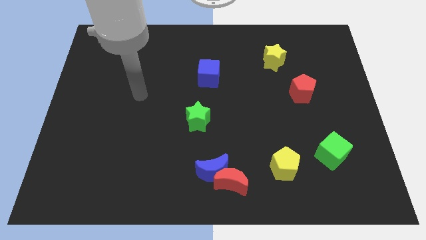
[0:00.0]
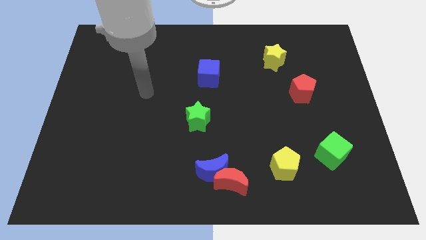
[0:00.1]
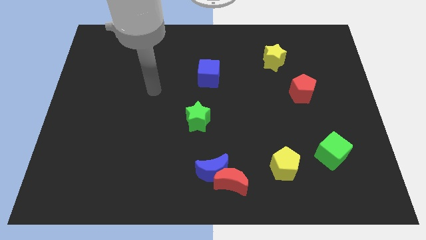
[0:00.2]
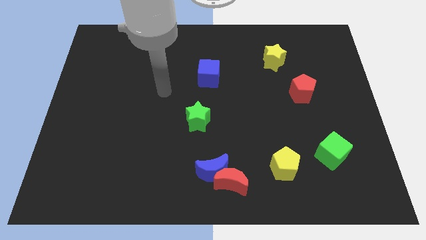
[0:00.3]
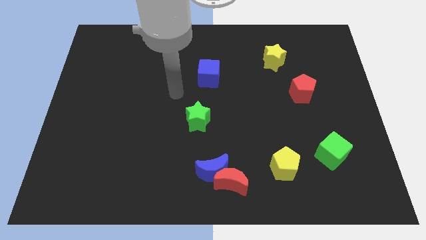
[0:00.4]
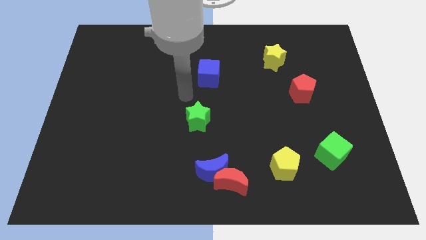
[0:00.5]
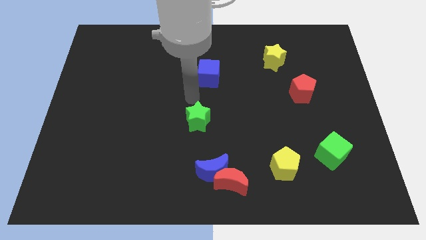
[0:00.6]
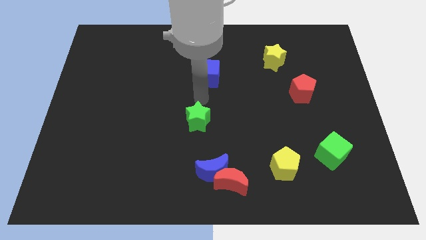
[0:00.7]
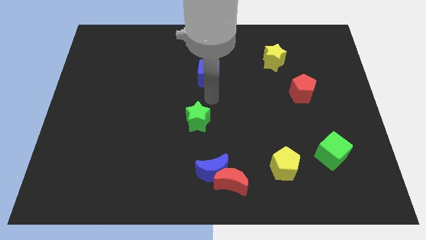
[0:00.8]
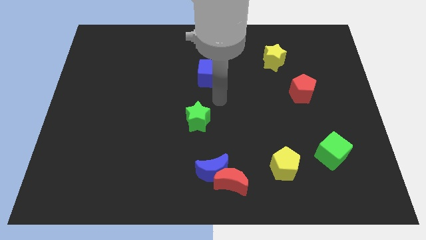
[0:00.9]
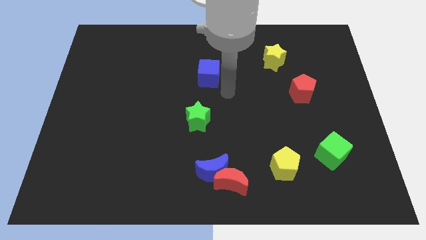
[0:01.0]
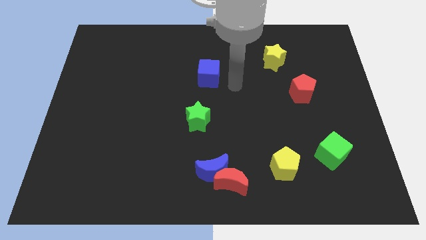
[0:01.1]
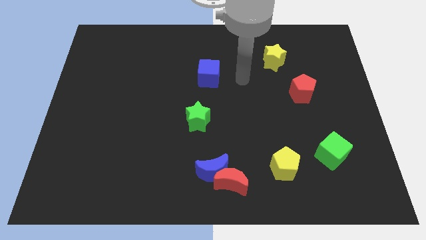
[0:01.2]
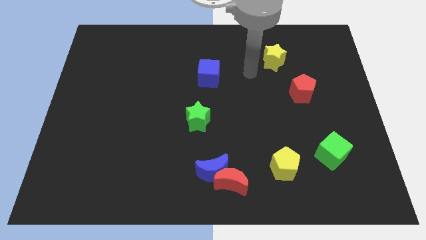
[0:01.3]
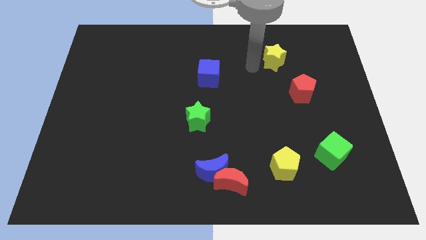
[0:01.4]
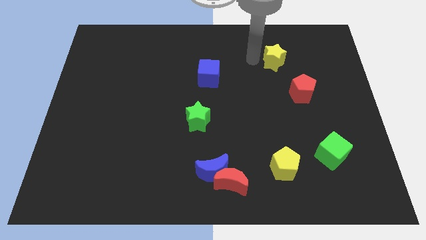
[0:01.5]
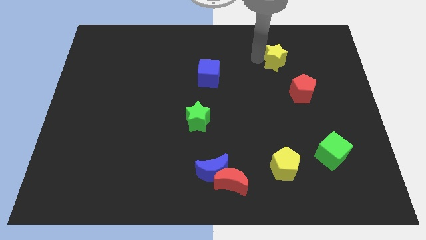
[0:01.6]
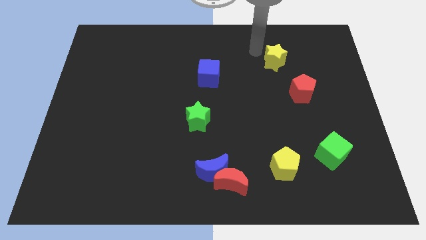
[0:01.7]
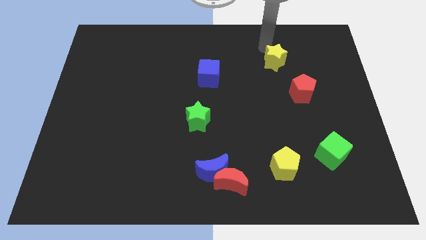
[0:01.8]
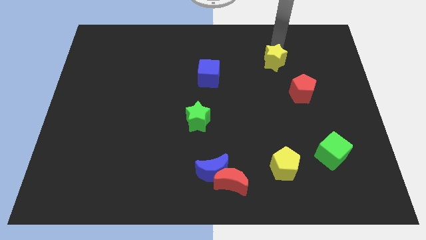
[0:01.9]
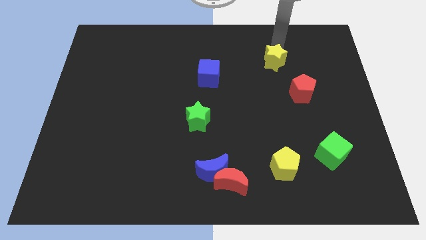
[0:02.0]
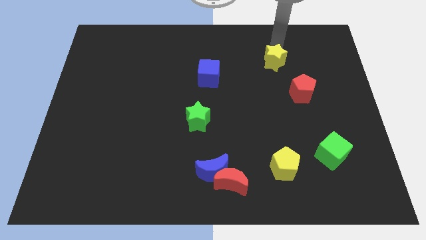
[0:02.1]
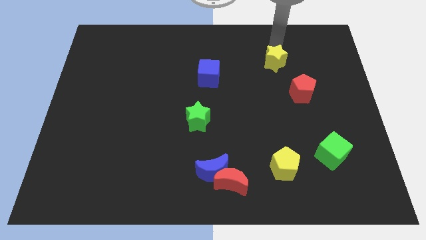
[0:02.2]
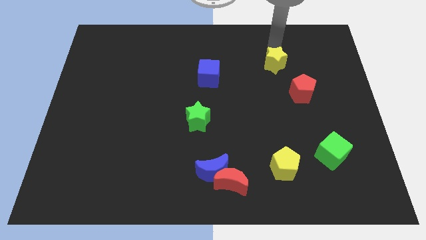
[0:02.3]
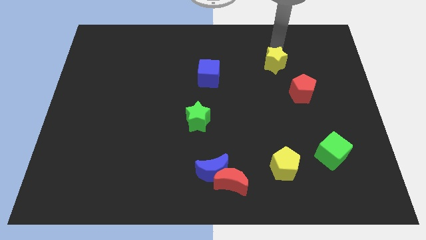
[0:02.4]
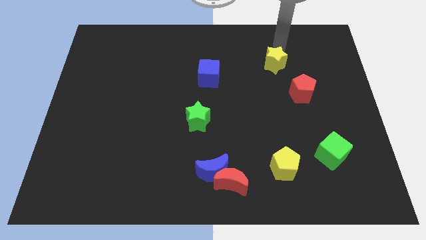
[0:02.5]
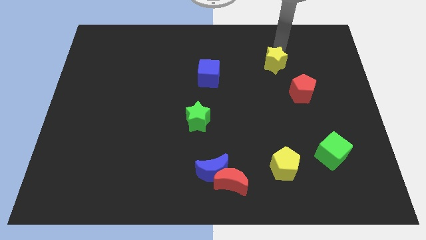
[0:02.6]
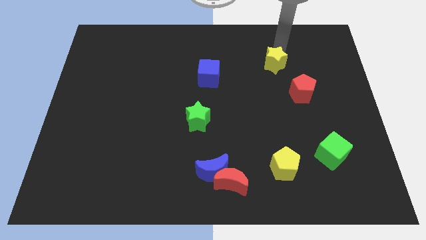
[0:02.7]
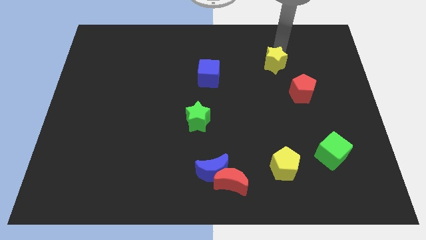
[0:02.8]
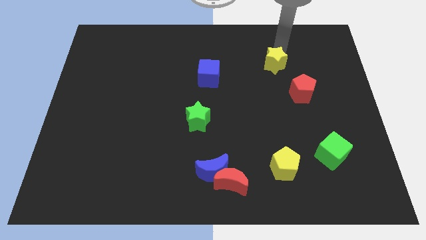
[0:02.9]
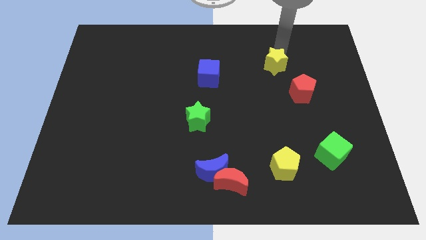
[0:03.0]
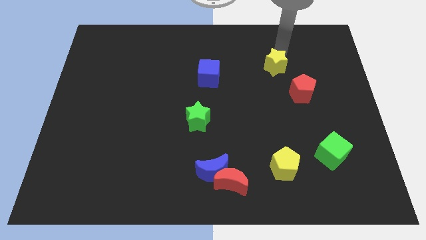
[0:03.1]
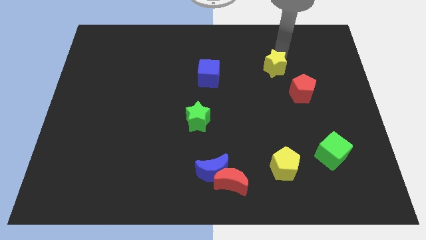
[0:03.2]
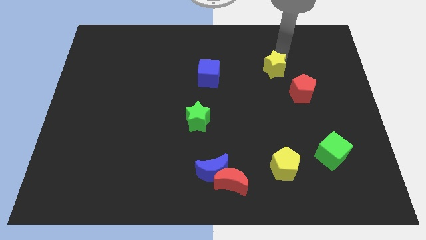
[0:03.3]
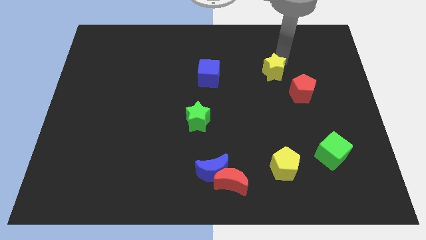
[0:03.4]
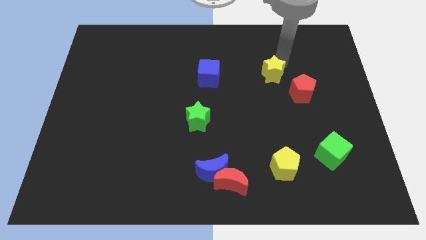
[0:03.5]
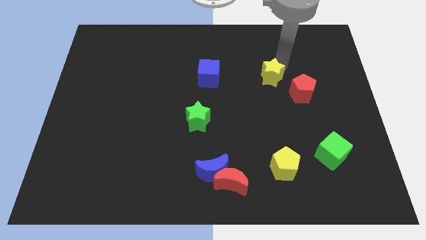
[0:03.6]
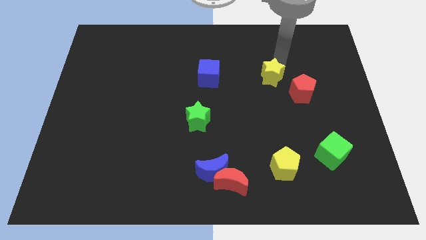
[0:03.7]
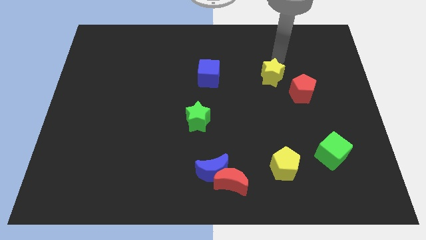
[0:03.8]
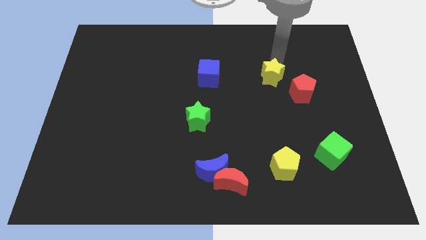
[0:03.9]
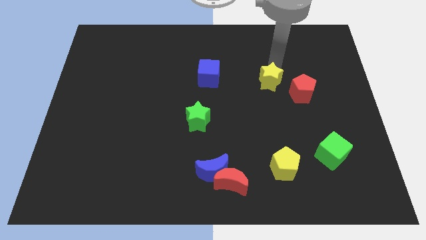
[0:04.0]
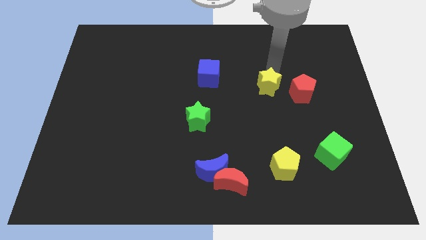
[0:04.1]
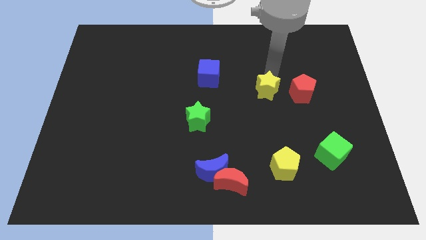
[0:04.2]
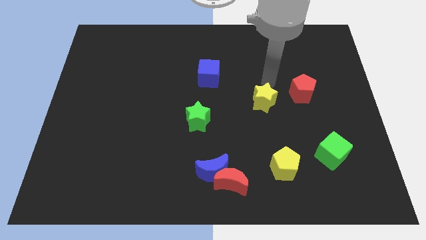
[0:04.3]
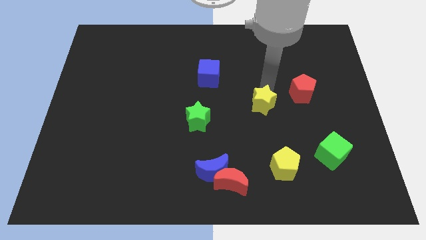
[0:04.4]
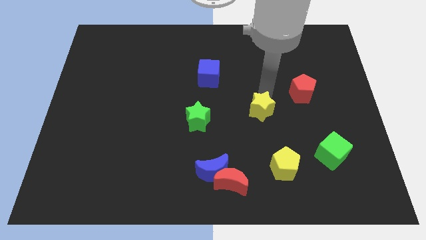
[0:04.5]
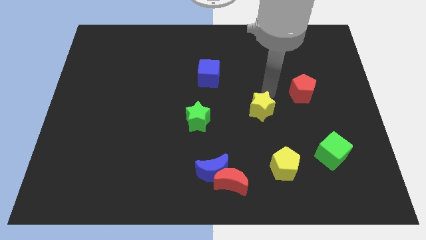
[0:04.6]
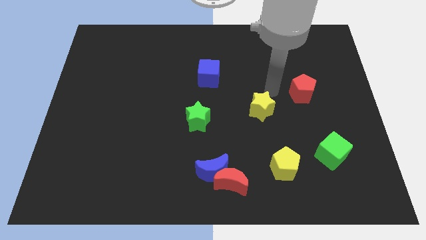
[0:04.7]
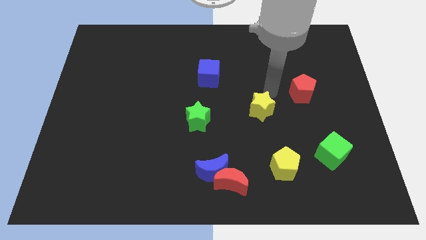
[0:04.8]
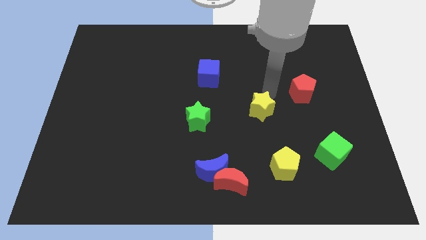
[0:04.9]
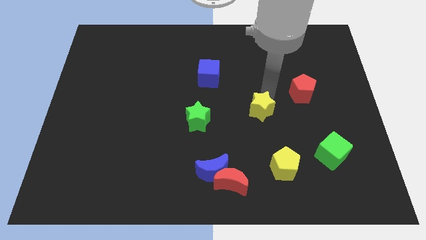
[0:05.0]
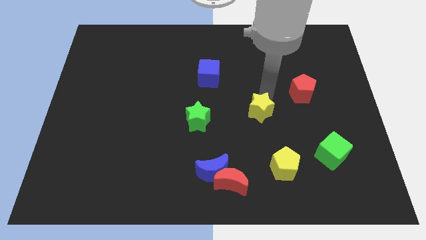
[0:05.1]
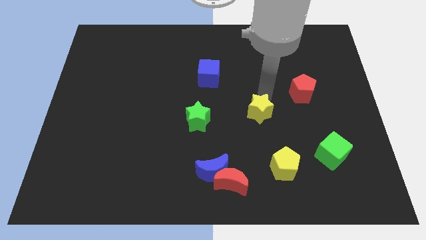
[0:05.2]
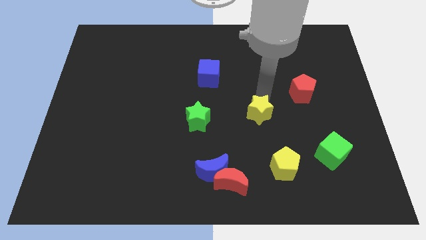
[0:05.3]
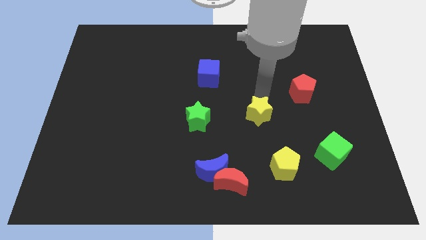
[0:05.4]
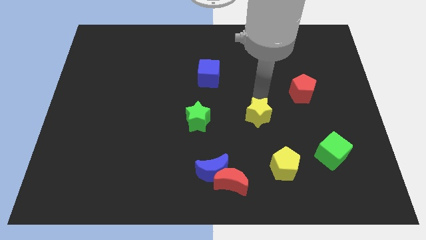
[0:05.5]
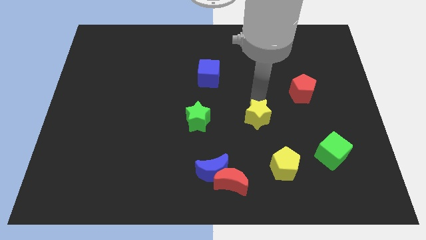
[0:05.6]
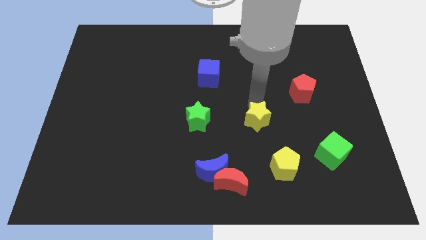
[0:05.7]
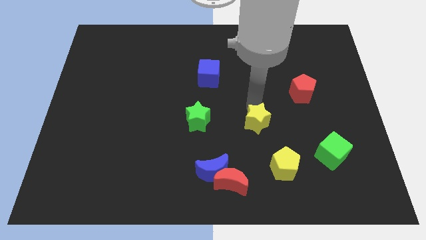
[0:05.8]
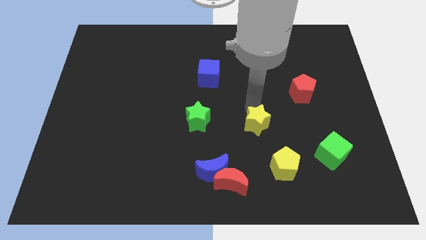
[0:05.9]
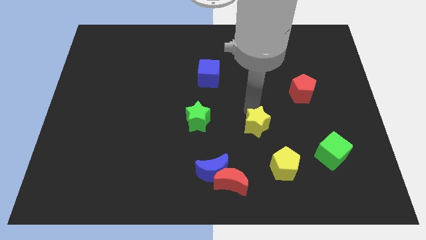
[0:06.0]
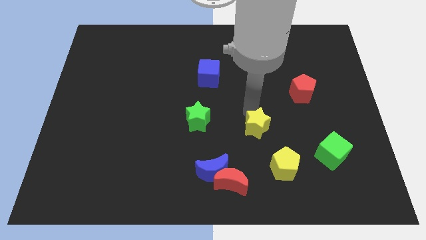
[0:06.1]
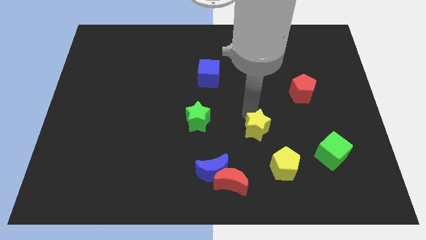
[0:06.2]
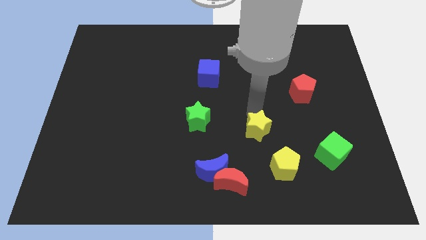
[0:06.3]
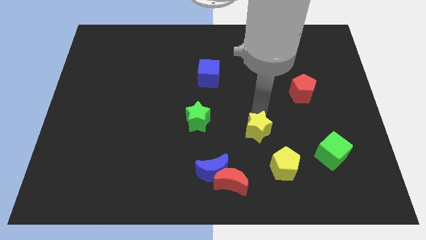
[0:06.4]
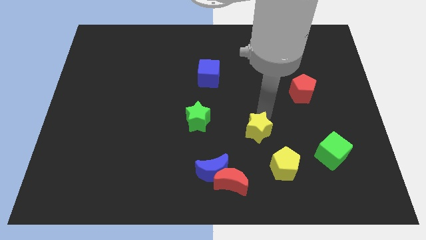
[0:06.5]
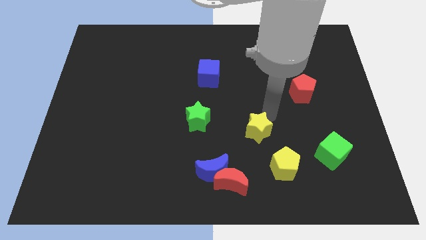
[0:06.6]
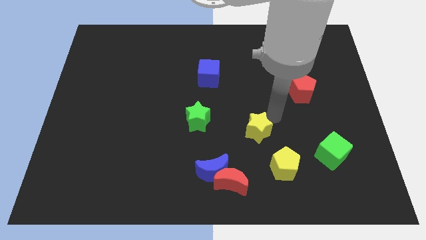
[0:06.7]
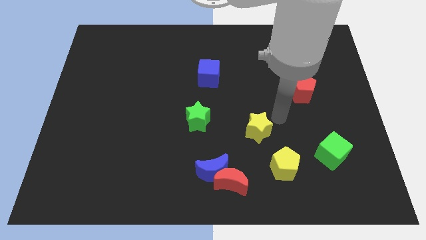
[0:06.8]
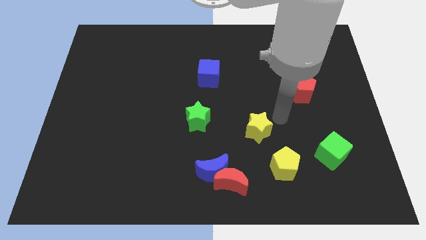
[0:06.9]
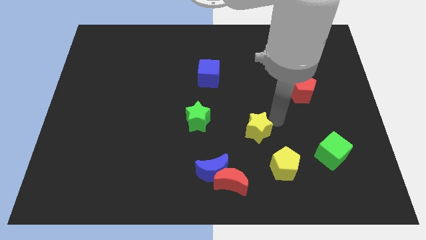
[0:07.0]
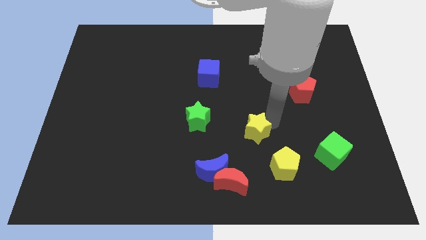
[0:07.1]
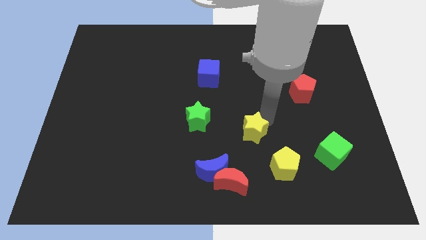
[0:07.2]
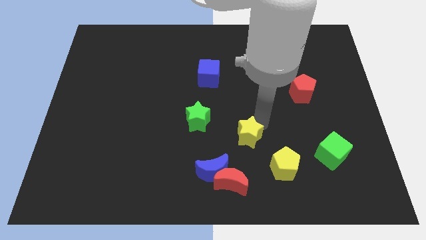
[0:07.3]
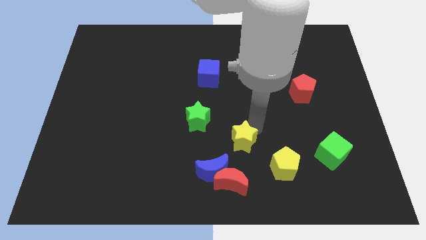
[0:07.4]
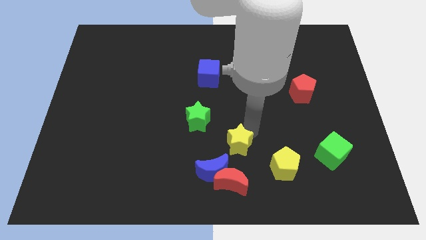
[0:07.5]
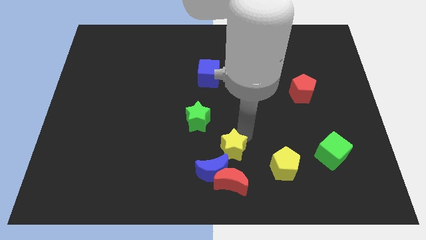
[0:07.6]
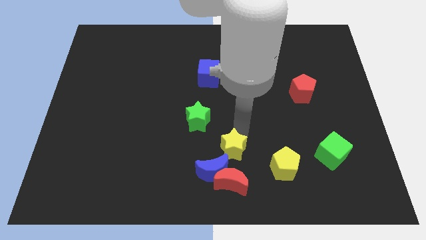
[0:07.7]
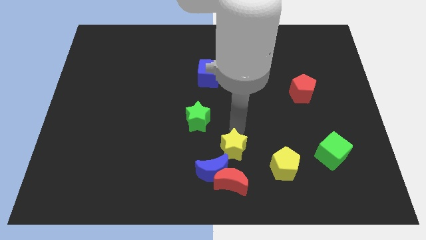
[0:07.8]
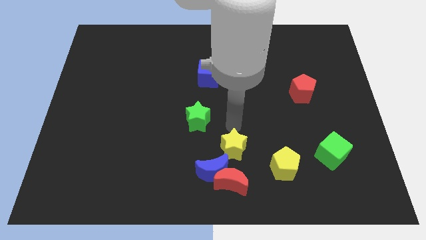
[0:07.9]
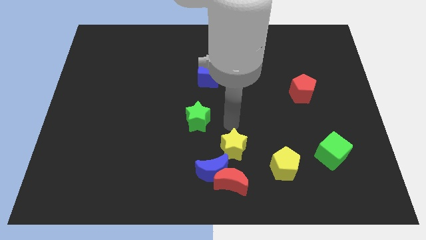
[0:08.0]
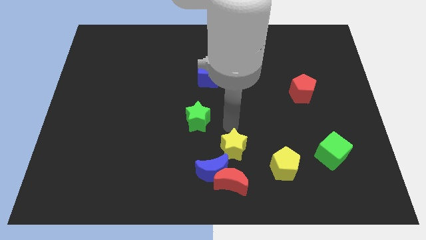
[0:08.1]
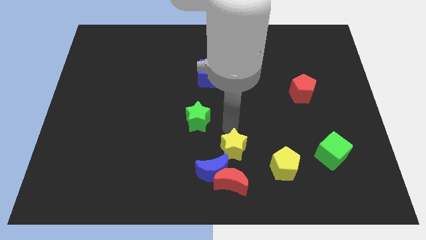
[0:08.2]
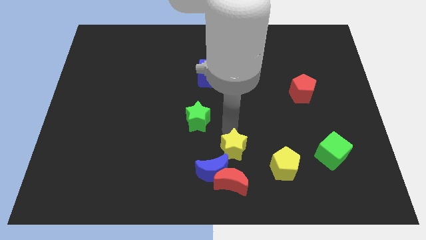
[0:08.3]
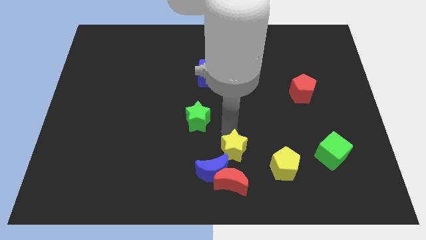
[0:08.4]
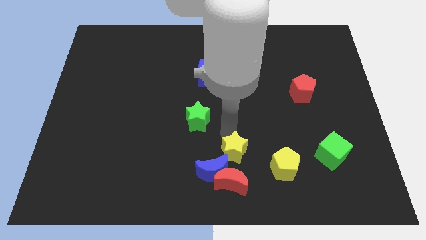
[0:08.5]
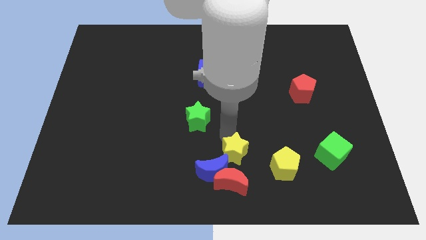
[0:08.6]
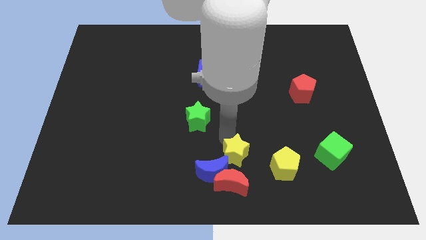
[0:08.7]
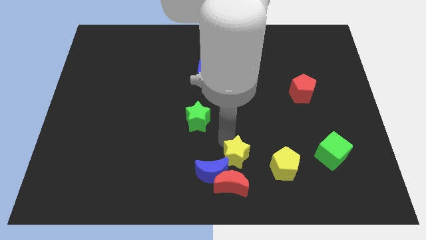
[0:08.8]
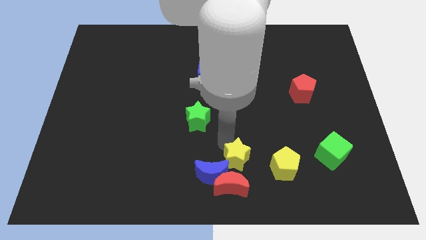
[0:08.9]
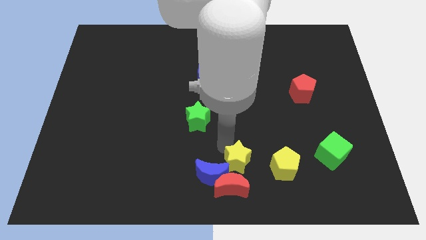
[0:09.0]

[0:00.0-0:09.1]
move the yellow star close to the red moon
